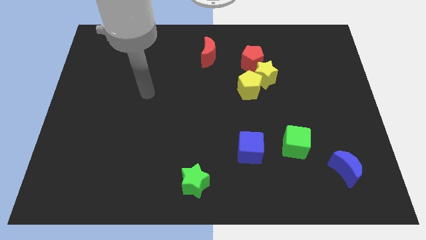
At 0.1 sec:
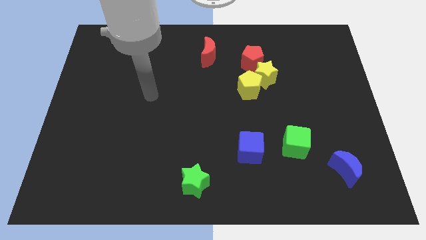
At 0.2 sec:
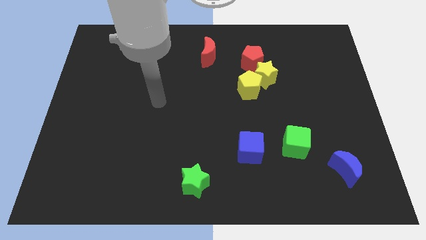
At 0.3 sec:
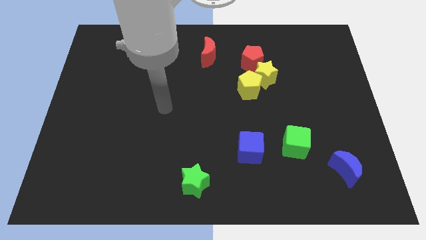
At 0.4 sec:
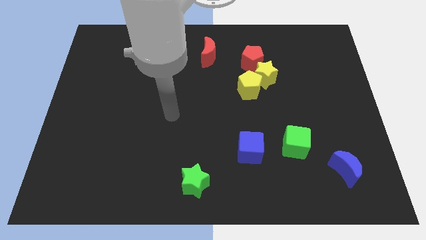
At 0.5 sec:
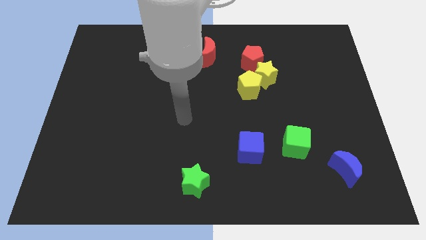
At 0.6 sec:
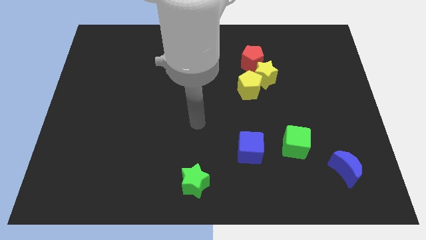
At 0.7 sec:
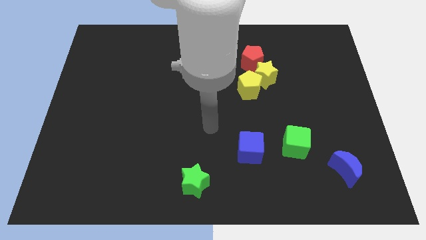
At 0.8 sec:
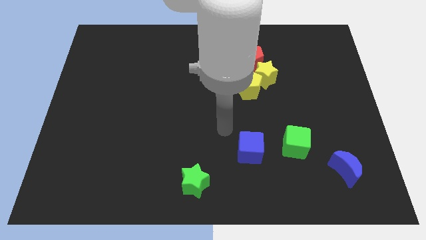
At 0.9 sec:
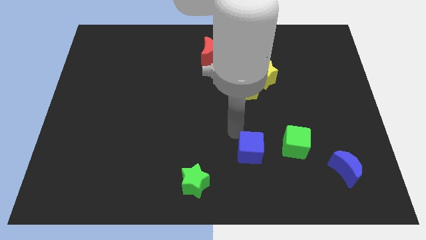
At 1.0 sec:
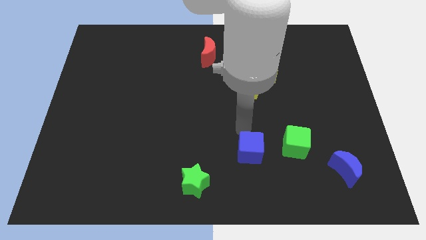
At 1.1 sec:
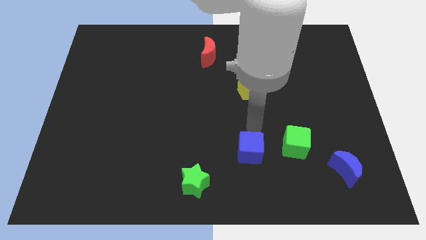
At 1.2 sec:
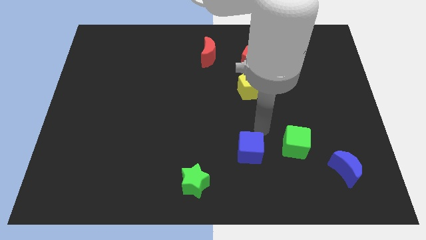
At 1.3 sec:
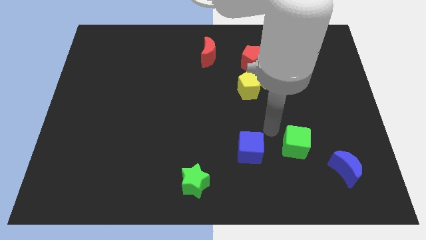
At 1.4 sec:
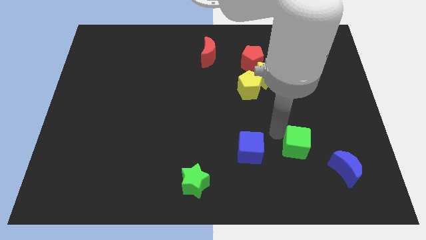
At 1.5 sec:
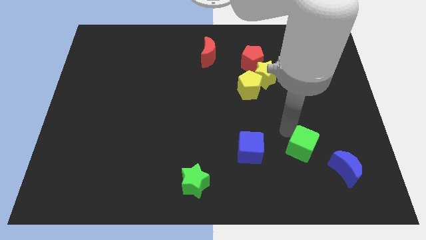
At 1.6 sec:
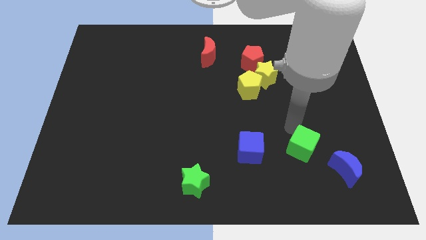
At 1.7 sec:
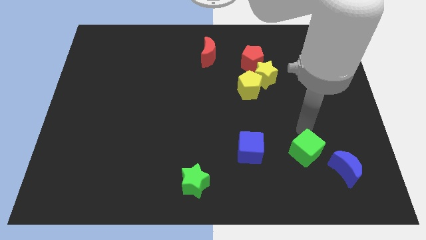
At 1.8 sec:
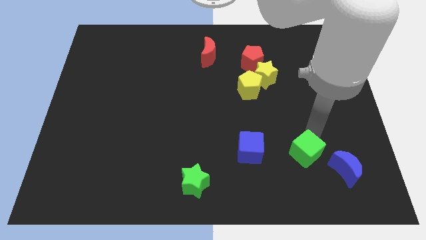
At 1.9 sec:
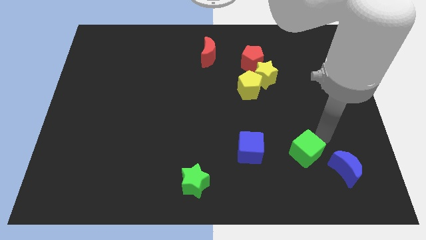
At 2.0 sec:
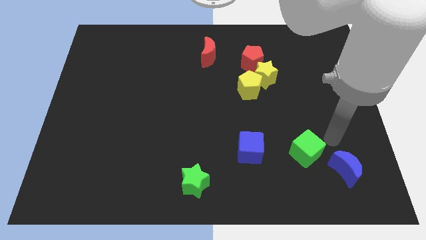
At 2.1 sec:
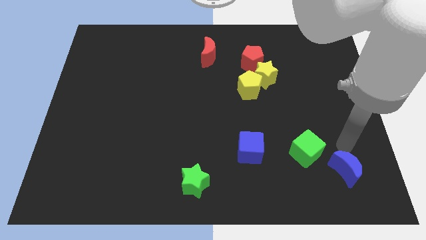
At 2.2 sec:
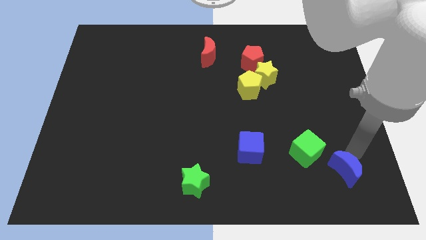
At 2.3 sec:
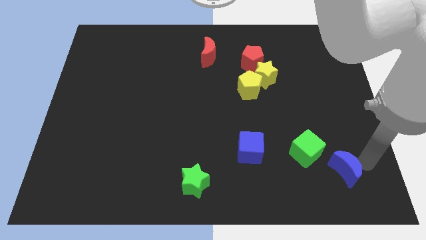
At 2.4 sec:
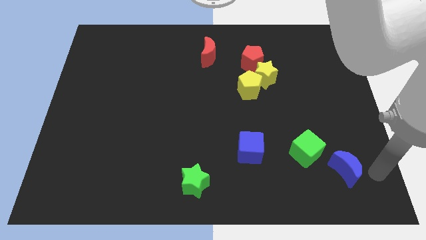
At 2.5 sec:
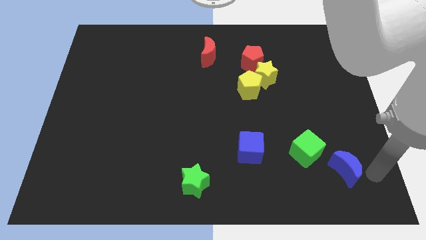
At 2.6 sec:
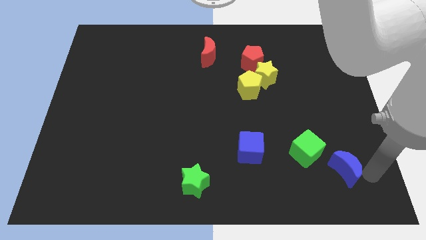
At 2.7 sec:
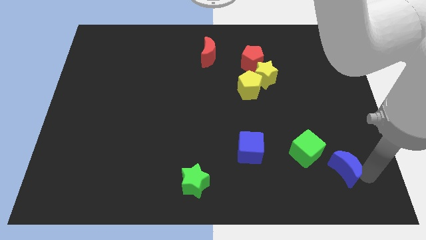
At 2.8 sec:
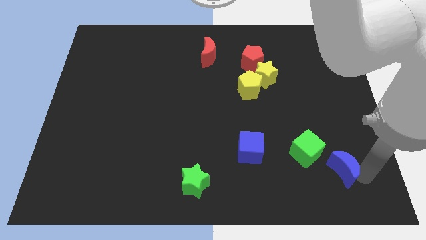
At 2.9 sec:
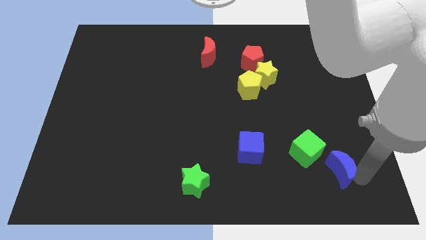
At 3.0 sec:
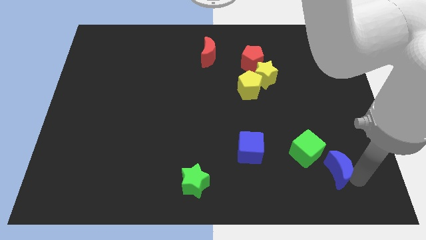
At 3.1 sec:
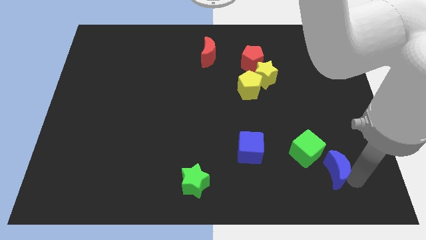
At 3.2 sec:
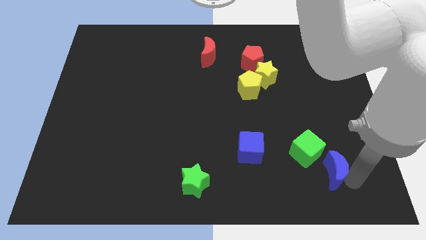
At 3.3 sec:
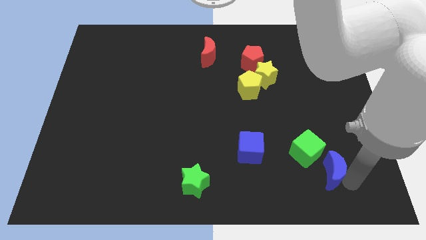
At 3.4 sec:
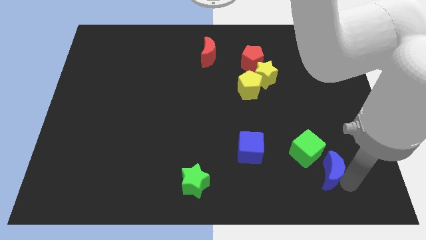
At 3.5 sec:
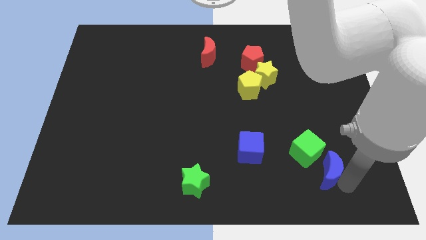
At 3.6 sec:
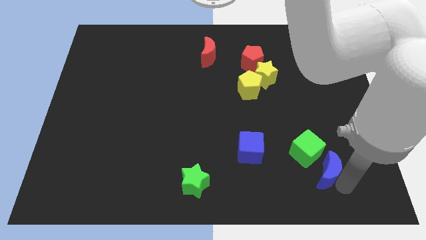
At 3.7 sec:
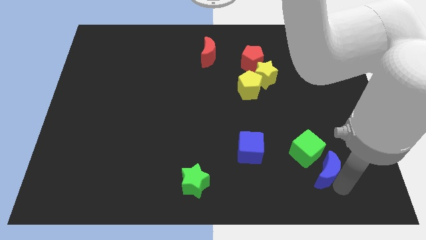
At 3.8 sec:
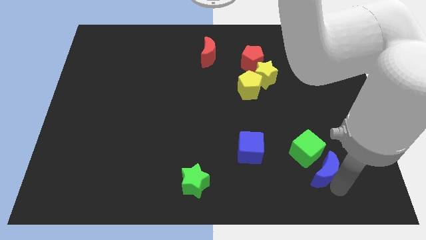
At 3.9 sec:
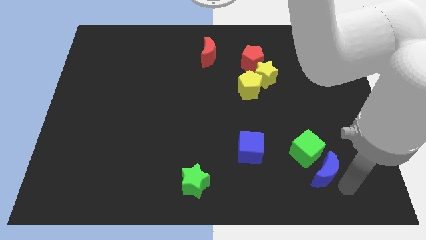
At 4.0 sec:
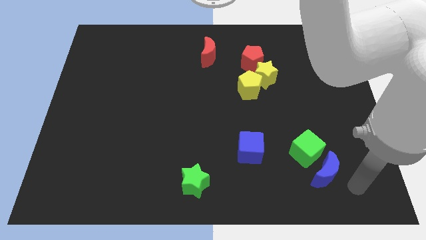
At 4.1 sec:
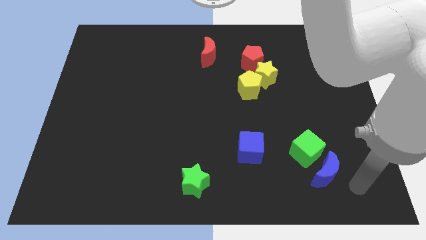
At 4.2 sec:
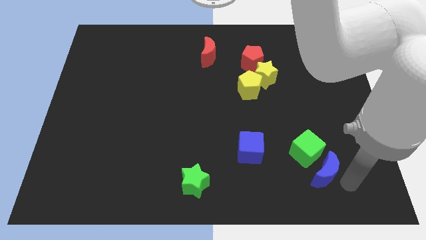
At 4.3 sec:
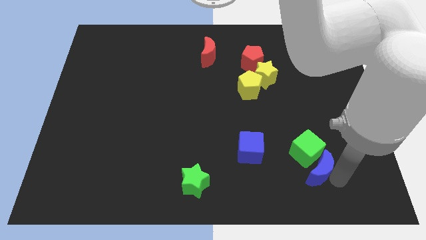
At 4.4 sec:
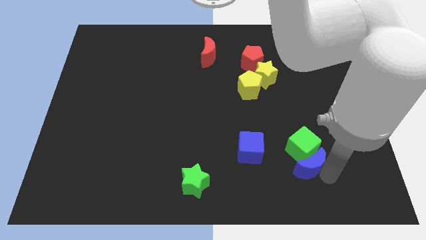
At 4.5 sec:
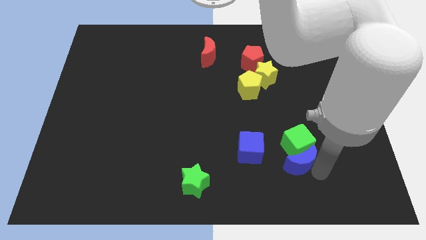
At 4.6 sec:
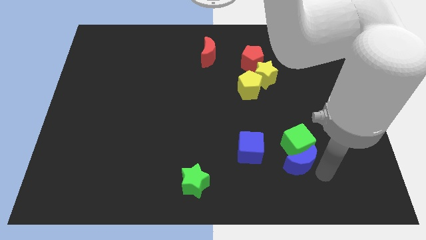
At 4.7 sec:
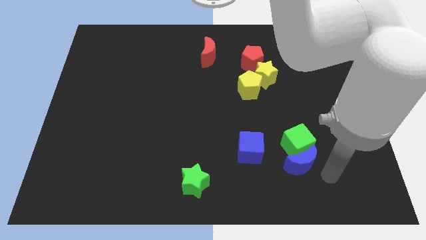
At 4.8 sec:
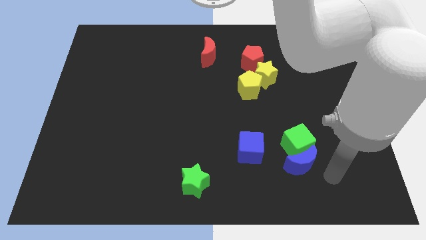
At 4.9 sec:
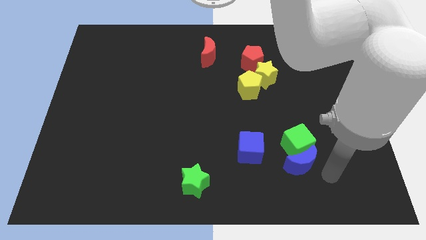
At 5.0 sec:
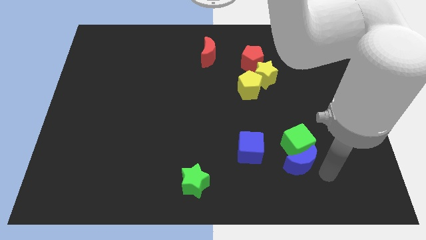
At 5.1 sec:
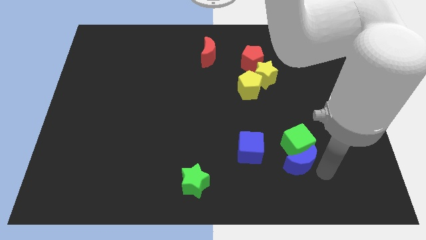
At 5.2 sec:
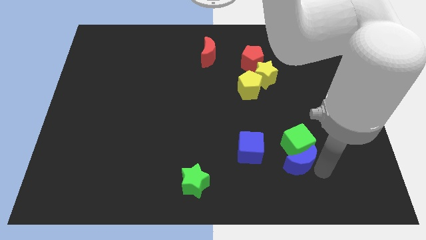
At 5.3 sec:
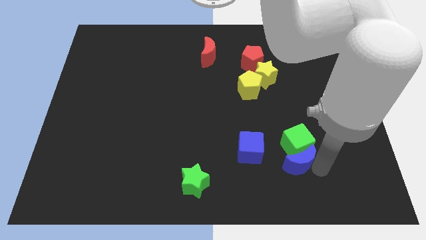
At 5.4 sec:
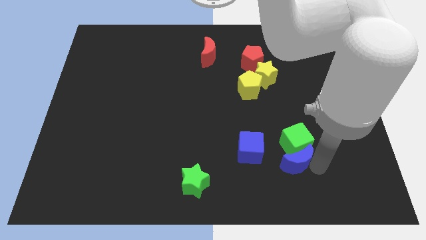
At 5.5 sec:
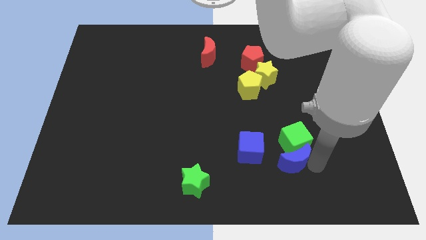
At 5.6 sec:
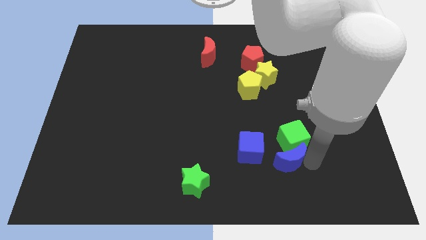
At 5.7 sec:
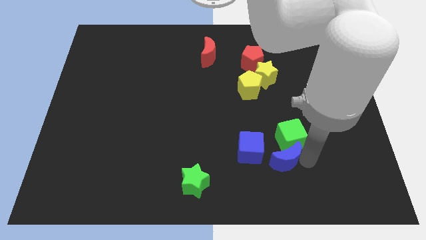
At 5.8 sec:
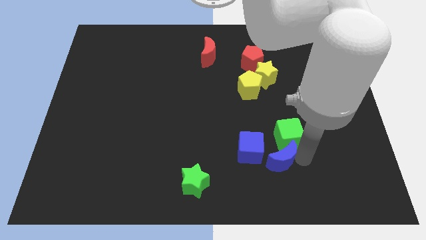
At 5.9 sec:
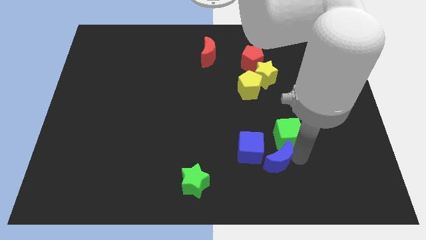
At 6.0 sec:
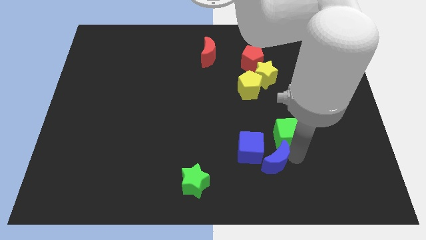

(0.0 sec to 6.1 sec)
slide the blue moon to the blue cube

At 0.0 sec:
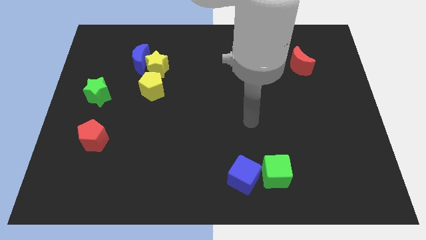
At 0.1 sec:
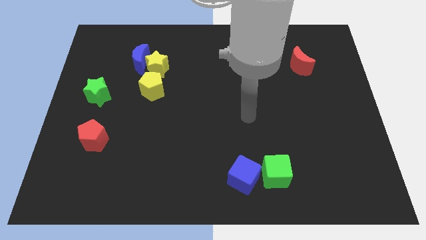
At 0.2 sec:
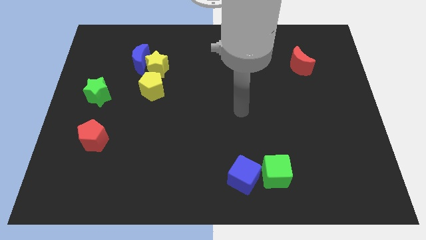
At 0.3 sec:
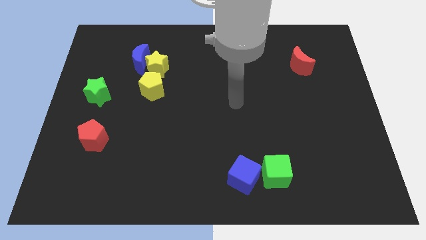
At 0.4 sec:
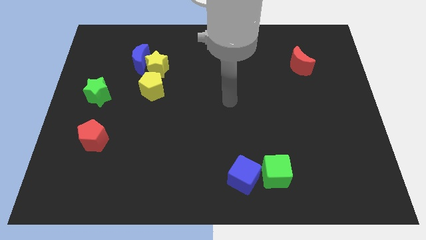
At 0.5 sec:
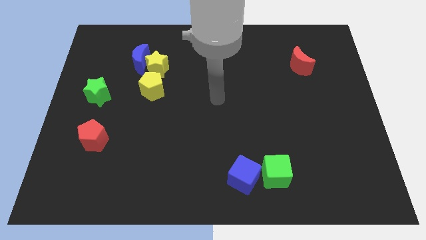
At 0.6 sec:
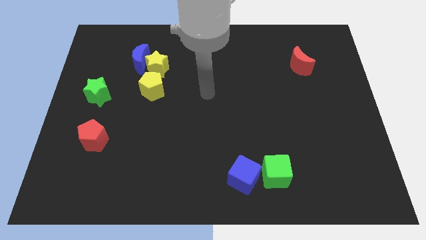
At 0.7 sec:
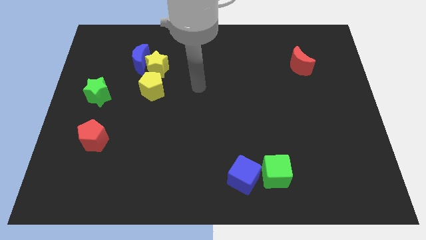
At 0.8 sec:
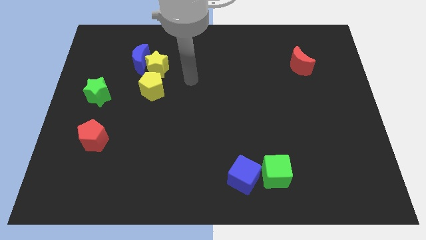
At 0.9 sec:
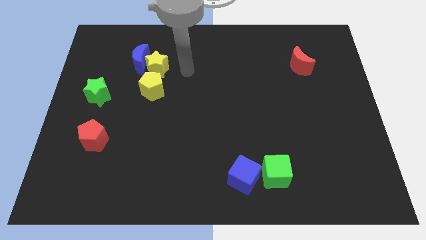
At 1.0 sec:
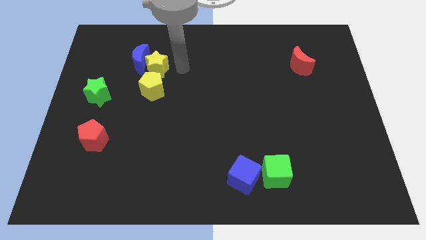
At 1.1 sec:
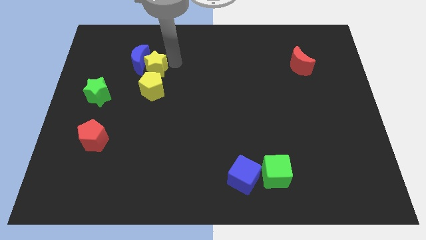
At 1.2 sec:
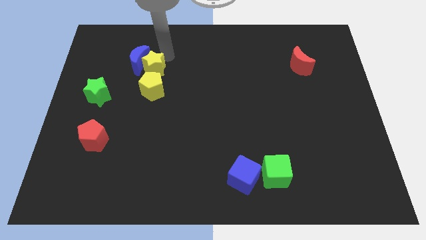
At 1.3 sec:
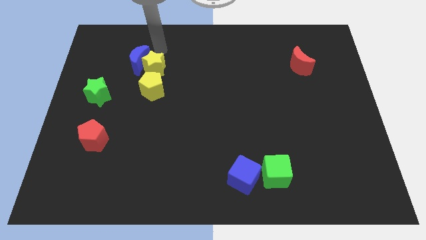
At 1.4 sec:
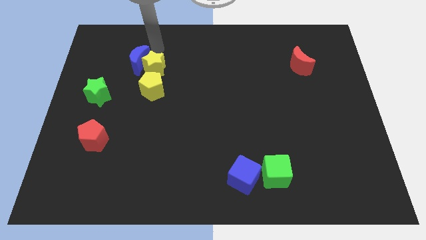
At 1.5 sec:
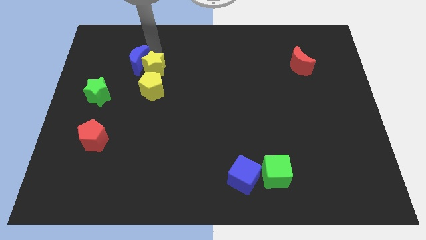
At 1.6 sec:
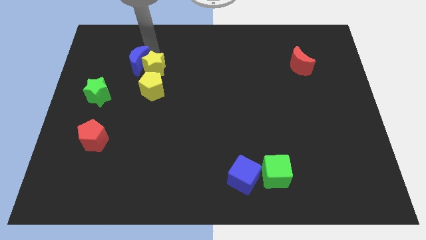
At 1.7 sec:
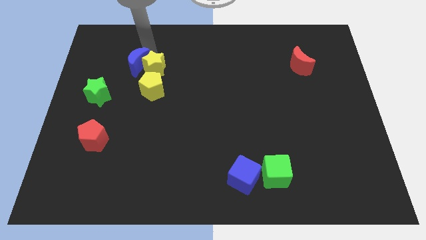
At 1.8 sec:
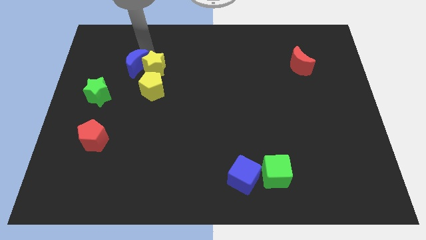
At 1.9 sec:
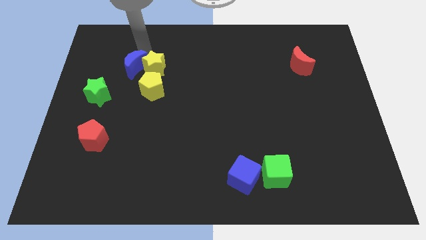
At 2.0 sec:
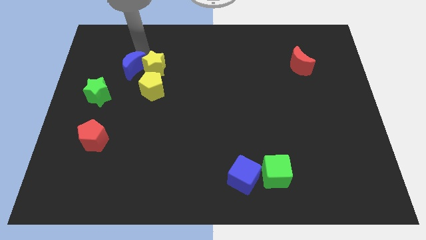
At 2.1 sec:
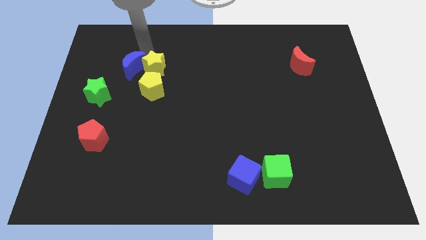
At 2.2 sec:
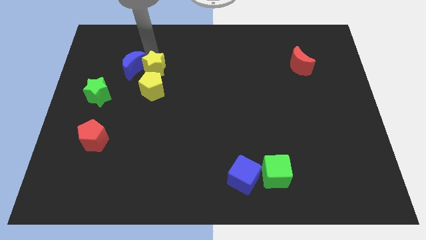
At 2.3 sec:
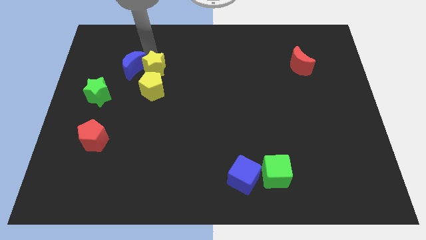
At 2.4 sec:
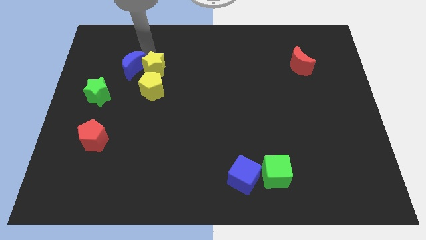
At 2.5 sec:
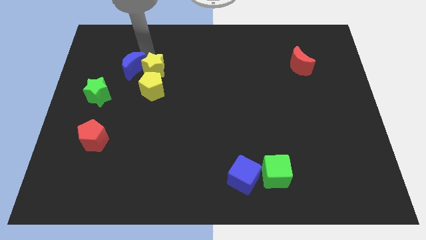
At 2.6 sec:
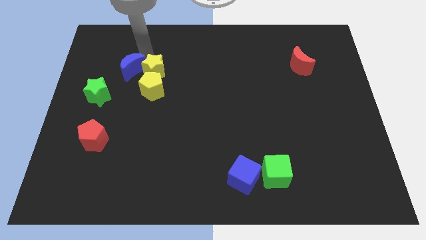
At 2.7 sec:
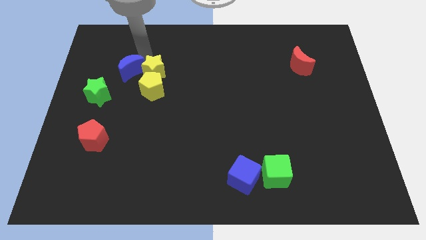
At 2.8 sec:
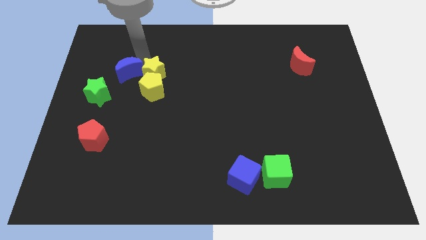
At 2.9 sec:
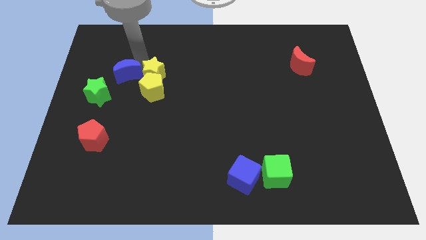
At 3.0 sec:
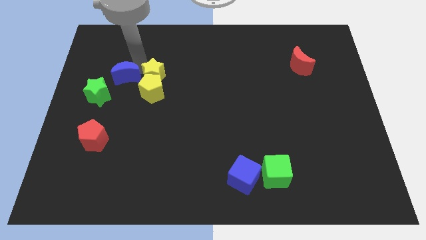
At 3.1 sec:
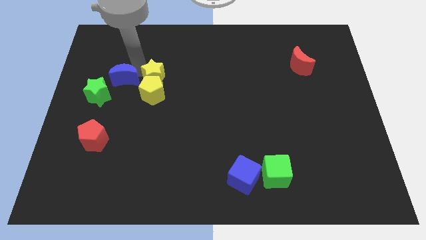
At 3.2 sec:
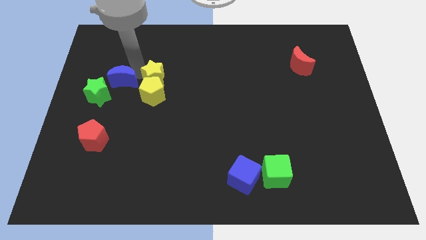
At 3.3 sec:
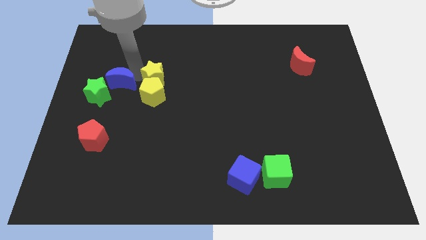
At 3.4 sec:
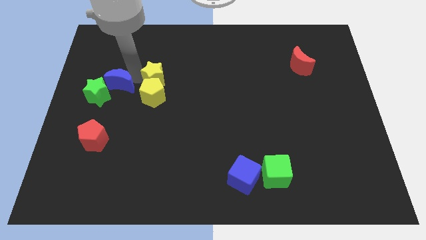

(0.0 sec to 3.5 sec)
push the blue moon close to the green star
